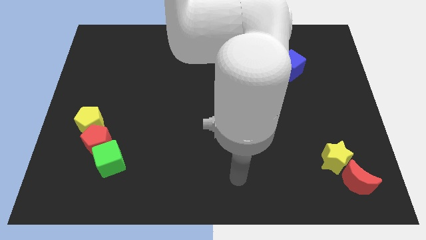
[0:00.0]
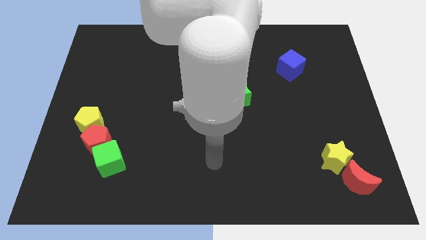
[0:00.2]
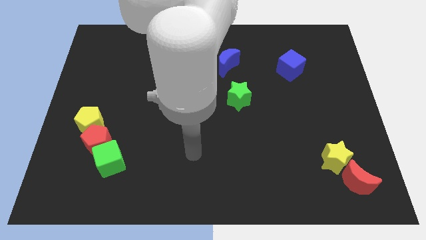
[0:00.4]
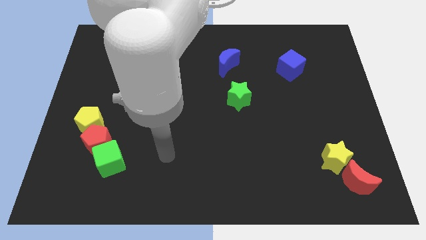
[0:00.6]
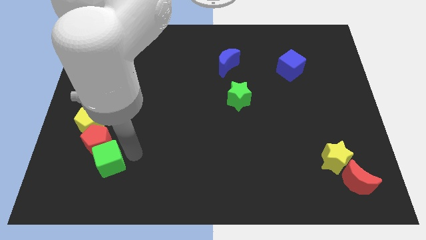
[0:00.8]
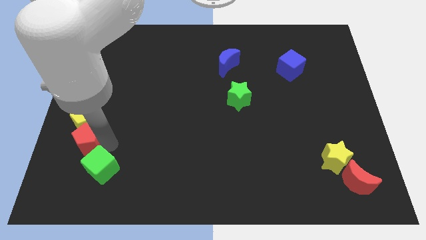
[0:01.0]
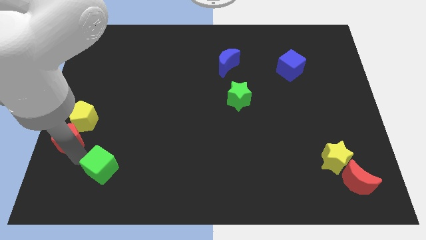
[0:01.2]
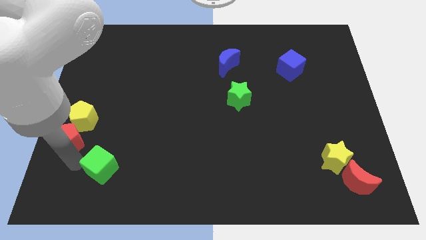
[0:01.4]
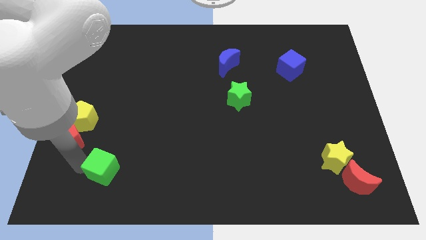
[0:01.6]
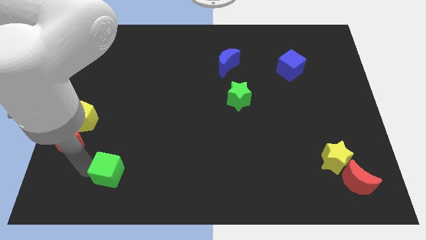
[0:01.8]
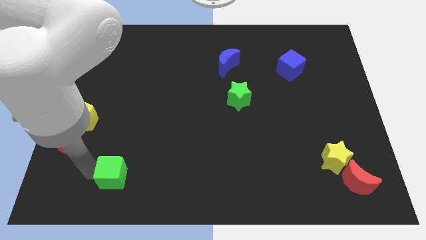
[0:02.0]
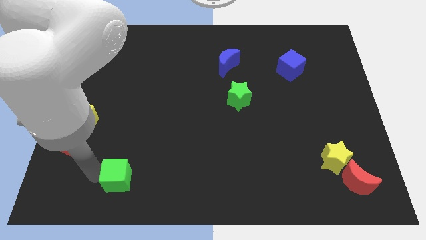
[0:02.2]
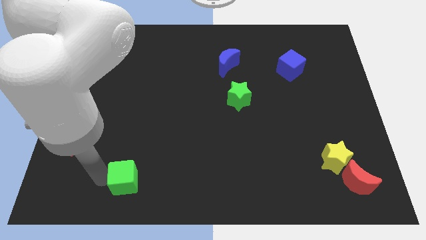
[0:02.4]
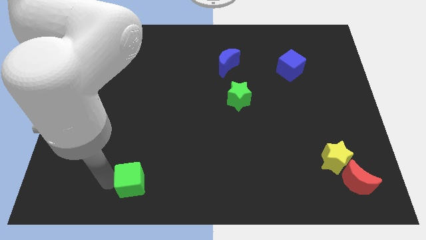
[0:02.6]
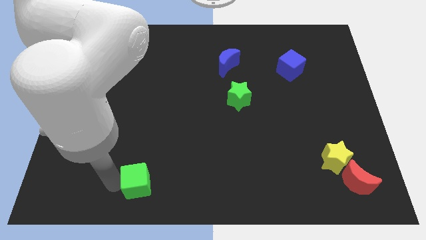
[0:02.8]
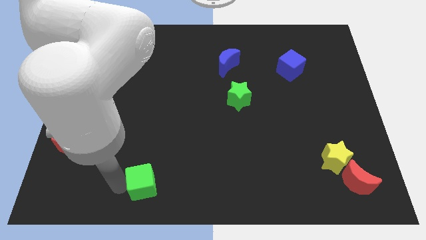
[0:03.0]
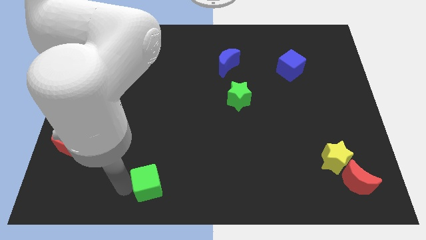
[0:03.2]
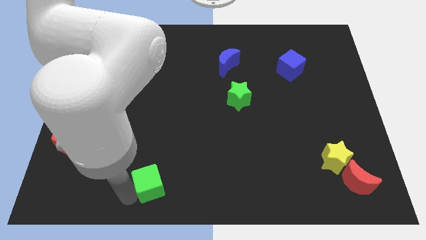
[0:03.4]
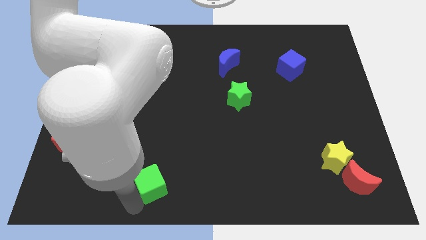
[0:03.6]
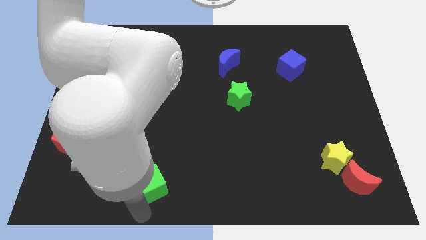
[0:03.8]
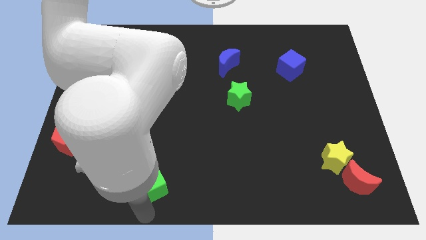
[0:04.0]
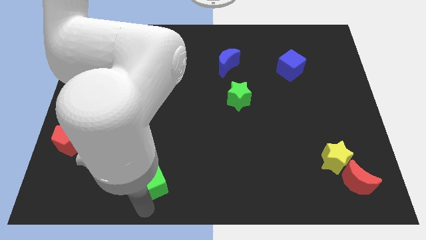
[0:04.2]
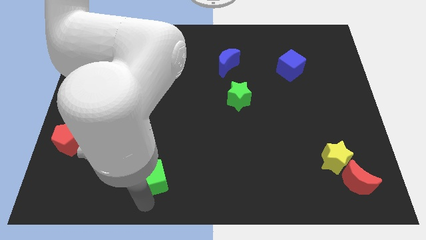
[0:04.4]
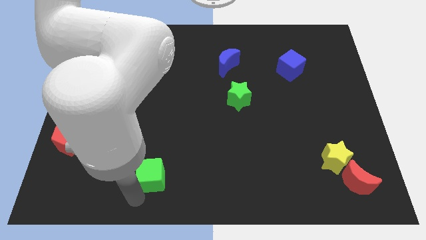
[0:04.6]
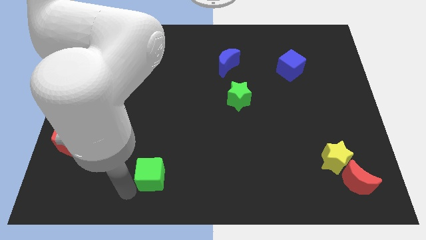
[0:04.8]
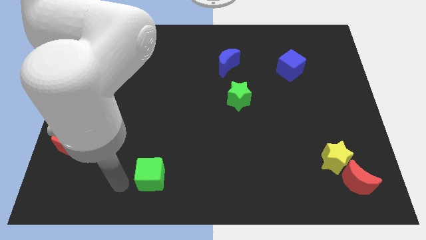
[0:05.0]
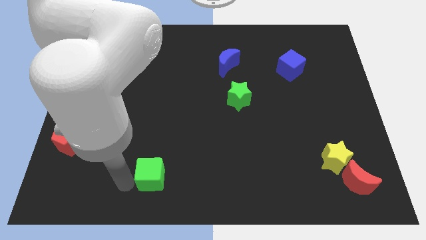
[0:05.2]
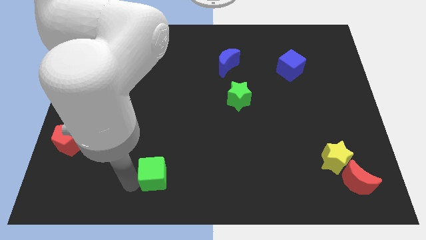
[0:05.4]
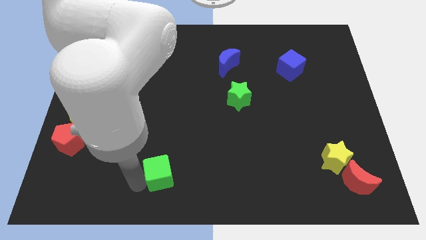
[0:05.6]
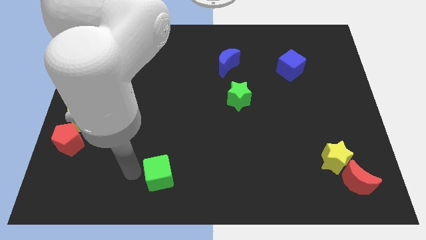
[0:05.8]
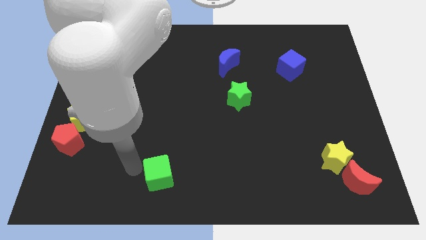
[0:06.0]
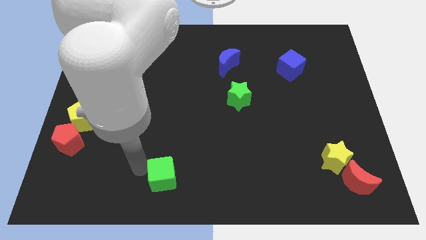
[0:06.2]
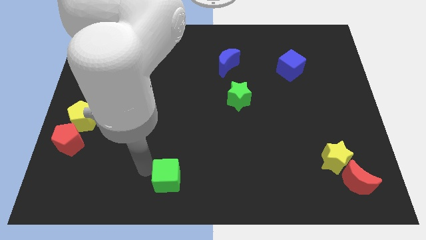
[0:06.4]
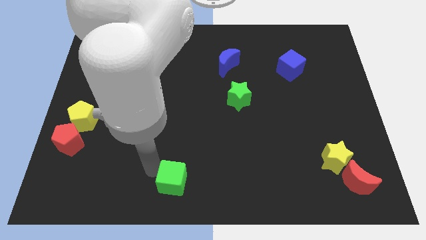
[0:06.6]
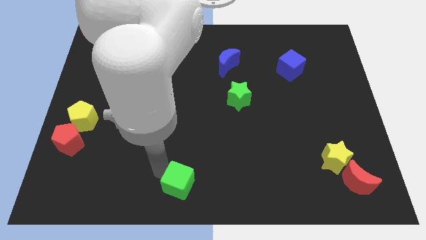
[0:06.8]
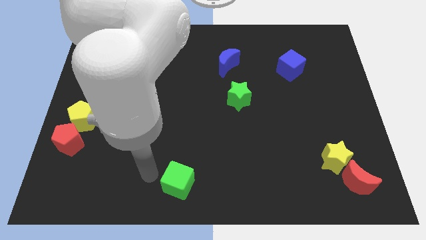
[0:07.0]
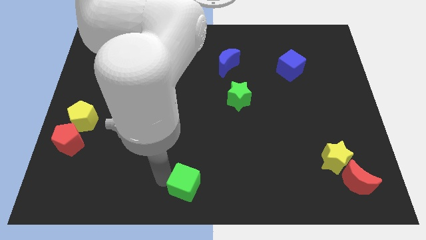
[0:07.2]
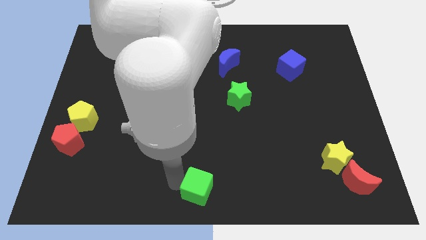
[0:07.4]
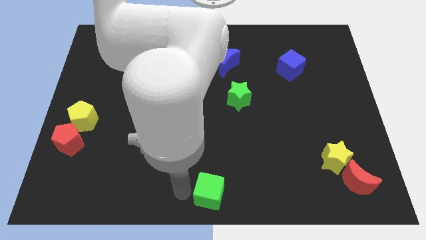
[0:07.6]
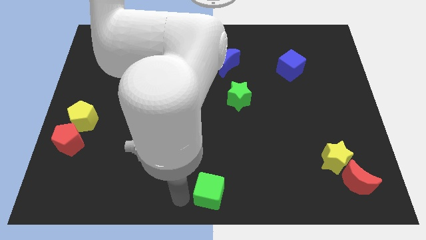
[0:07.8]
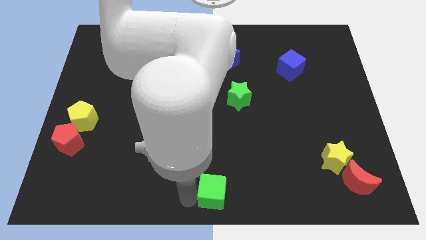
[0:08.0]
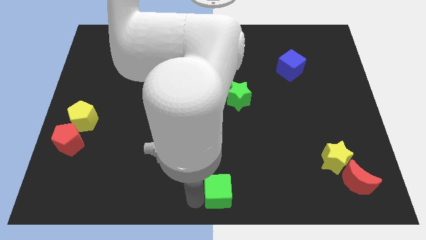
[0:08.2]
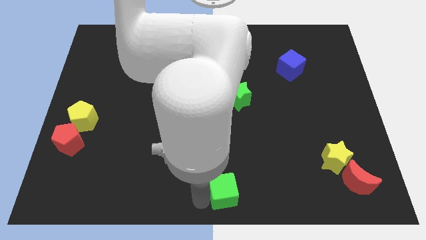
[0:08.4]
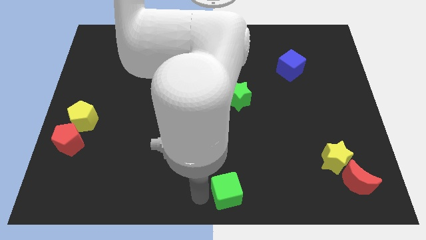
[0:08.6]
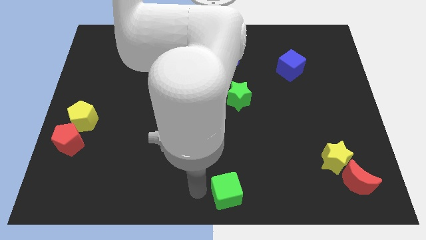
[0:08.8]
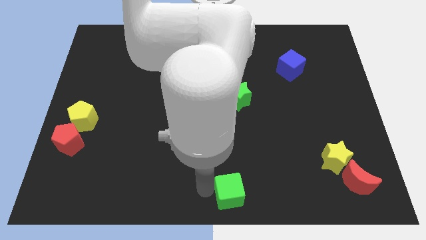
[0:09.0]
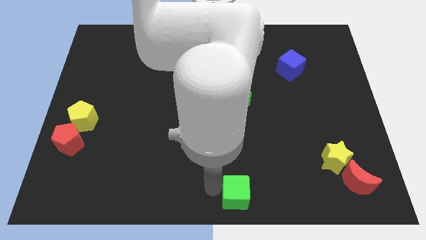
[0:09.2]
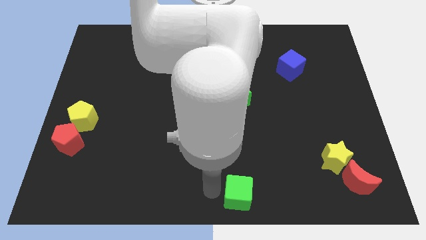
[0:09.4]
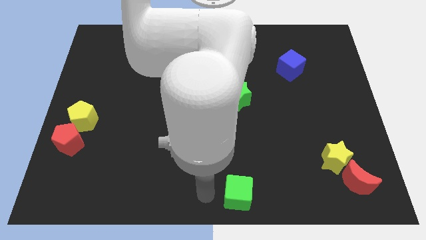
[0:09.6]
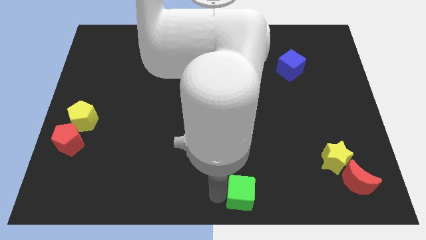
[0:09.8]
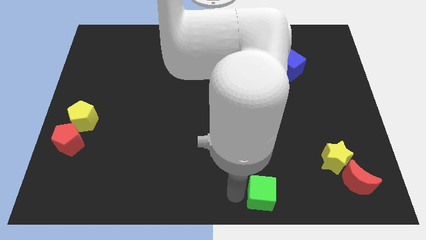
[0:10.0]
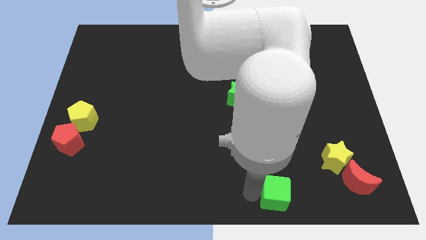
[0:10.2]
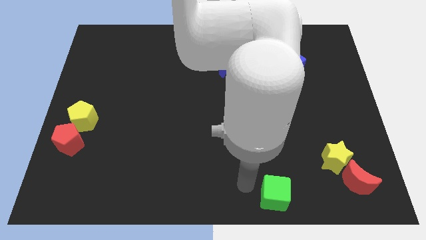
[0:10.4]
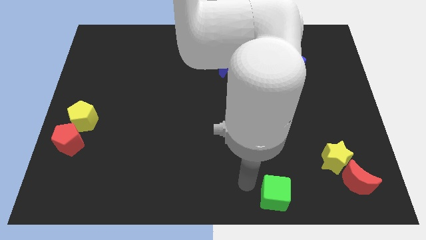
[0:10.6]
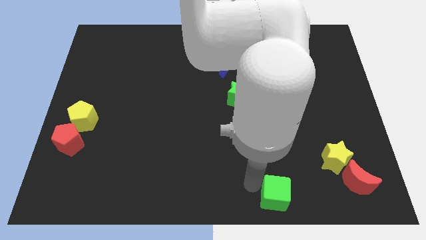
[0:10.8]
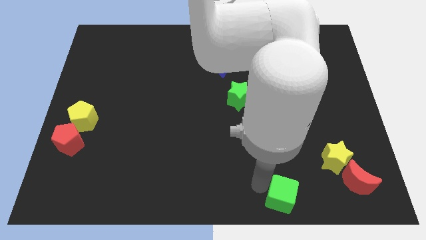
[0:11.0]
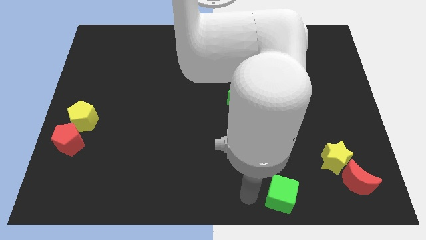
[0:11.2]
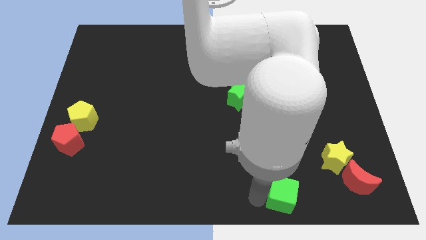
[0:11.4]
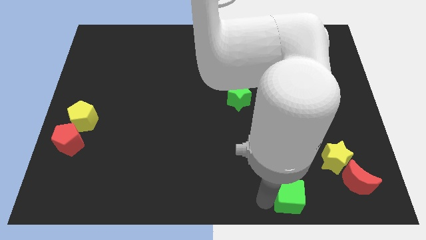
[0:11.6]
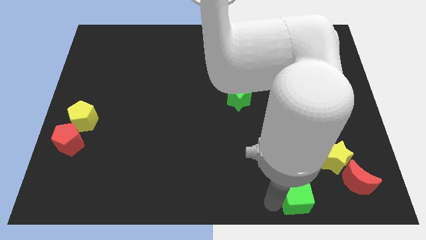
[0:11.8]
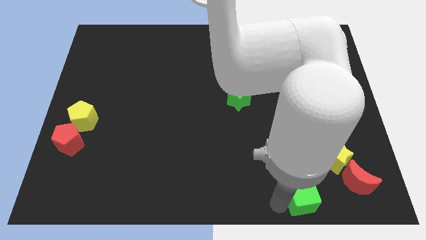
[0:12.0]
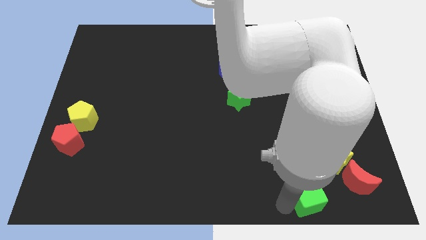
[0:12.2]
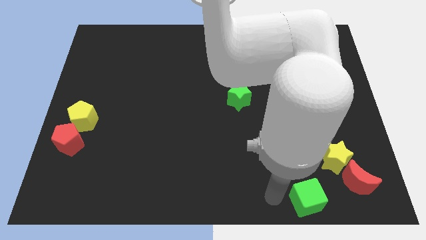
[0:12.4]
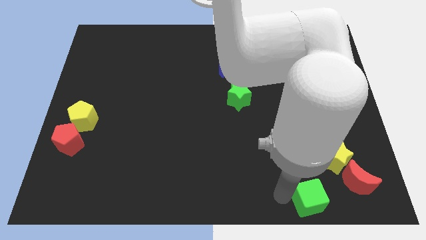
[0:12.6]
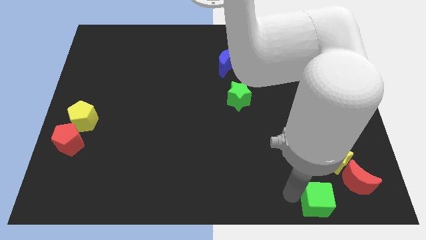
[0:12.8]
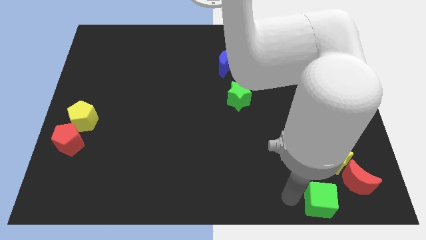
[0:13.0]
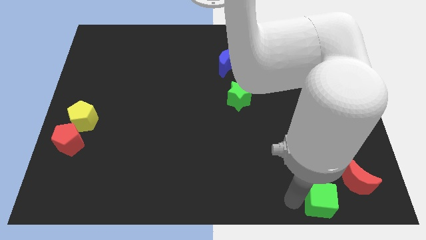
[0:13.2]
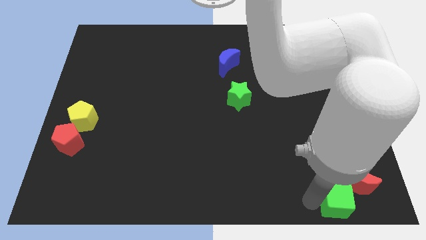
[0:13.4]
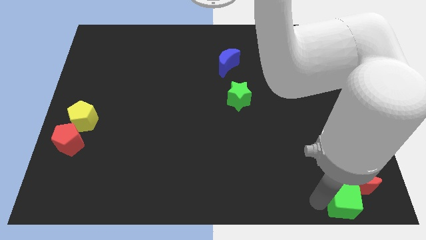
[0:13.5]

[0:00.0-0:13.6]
push the green cube to the bottom right corner
